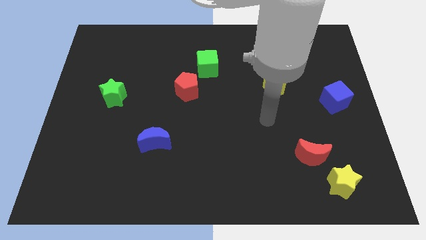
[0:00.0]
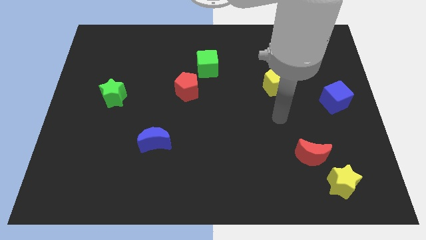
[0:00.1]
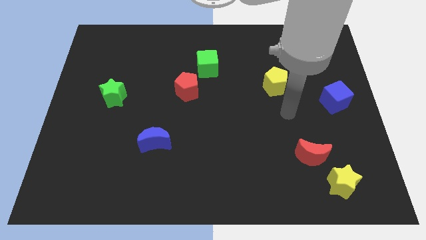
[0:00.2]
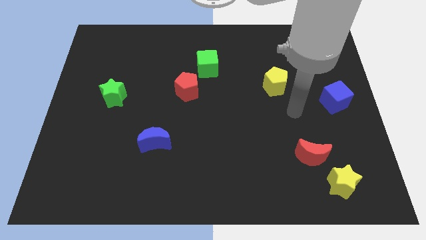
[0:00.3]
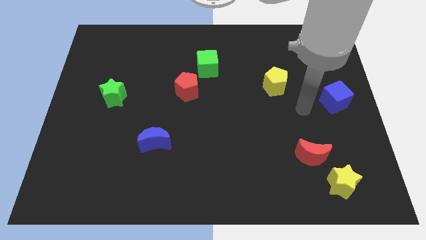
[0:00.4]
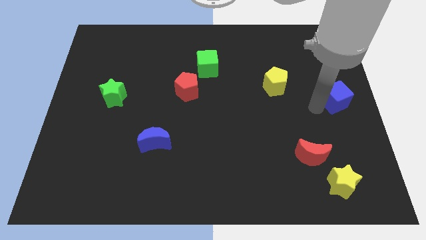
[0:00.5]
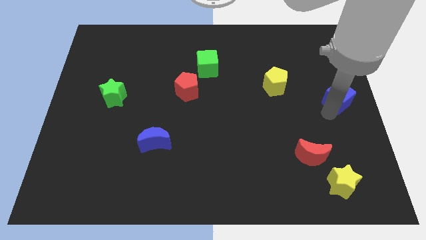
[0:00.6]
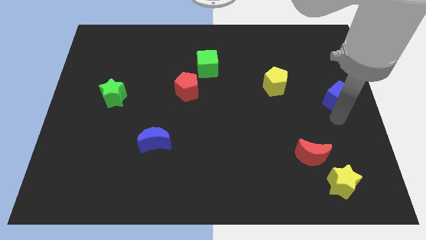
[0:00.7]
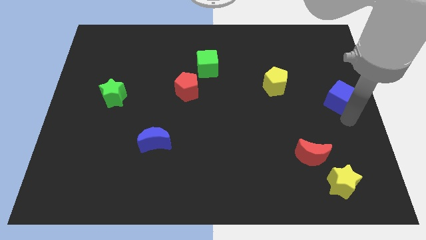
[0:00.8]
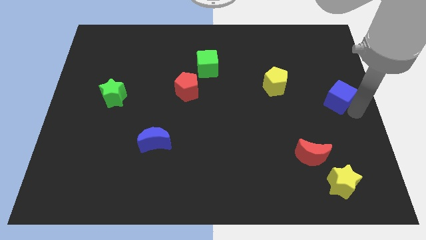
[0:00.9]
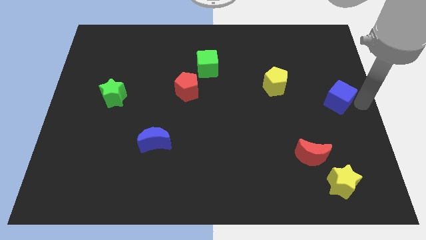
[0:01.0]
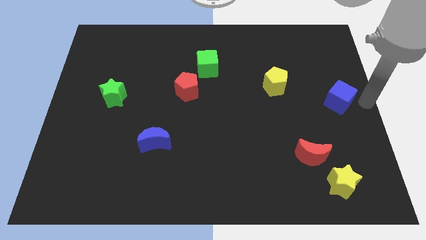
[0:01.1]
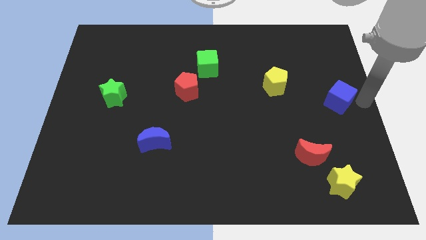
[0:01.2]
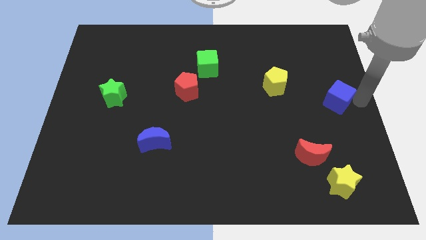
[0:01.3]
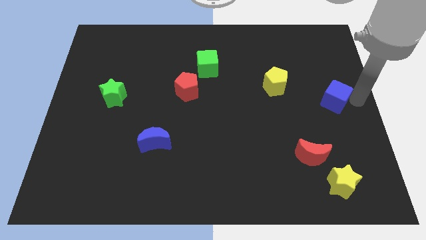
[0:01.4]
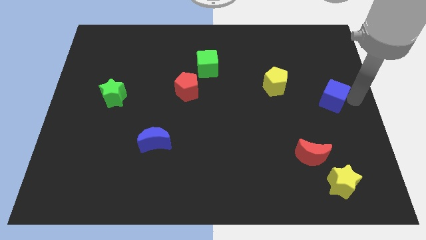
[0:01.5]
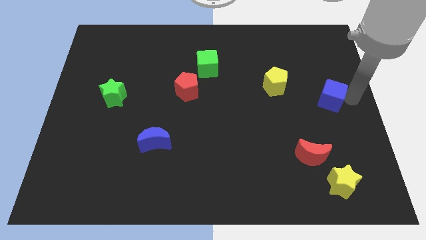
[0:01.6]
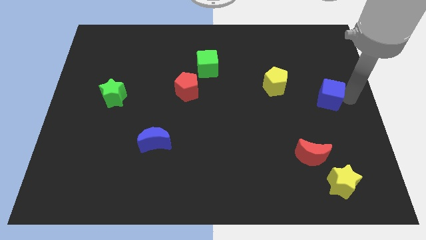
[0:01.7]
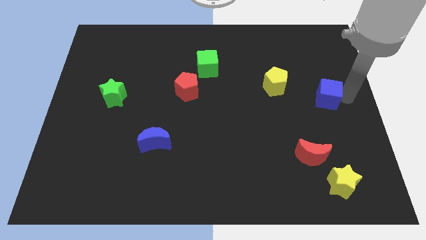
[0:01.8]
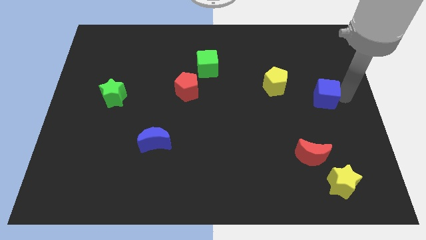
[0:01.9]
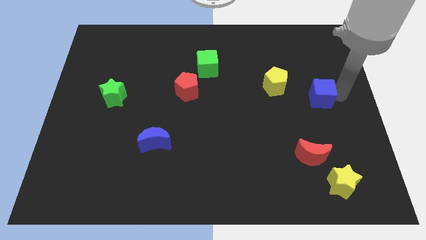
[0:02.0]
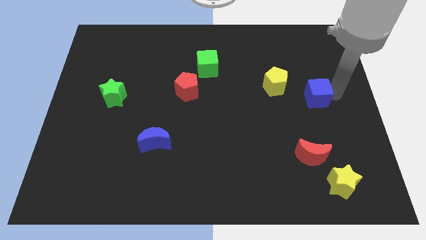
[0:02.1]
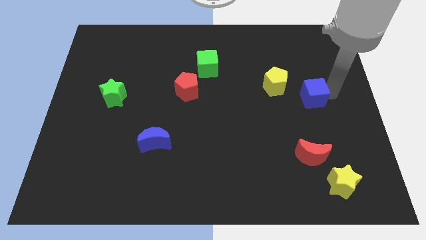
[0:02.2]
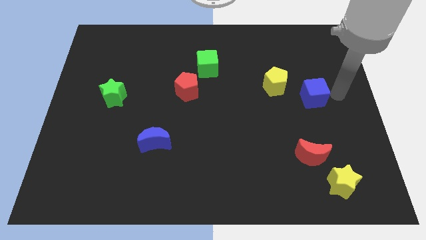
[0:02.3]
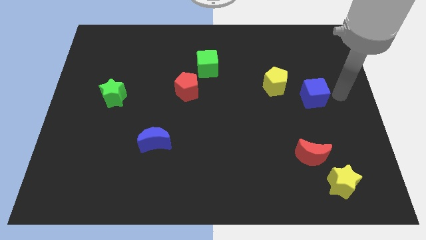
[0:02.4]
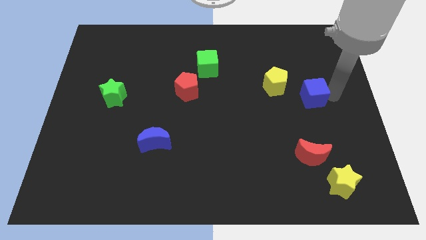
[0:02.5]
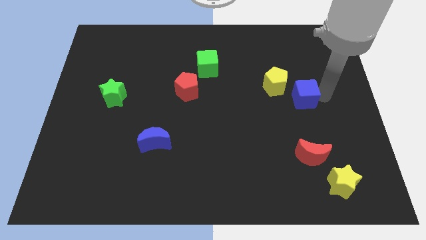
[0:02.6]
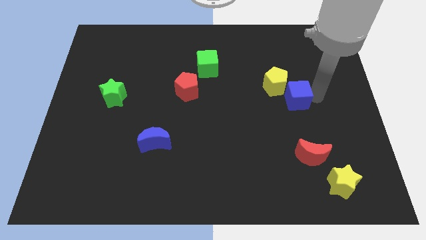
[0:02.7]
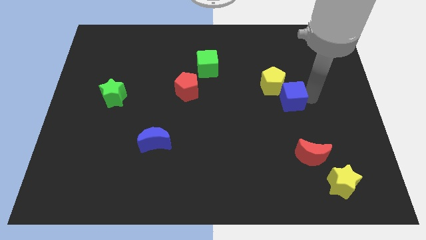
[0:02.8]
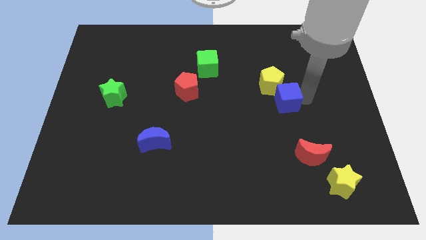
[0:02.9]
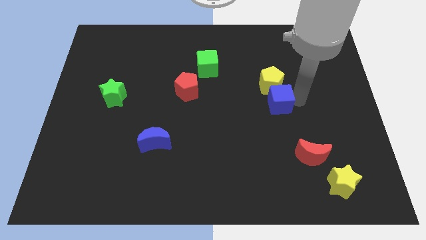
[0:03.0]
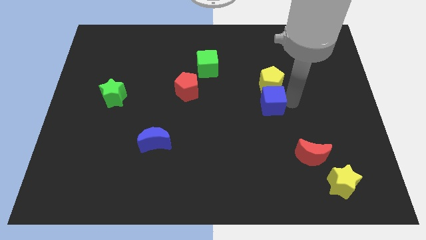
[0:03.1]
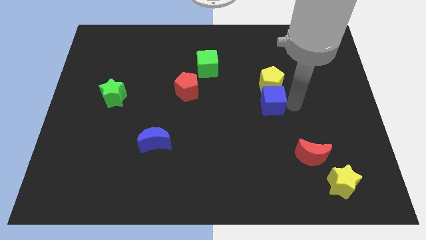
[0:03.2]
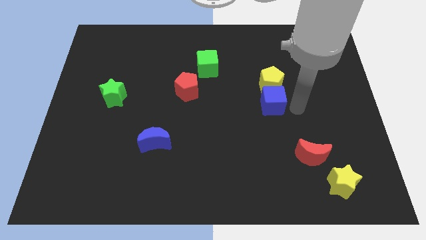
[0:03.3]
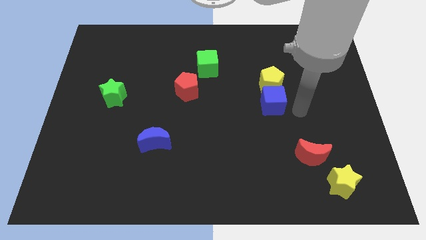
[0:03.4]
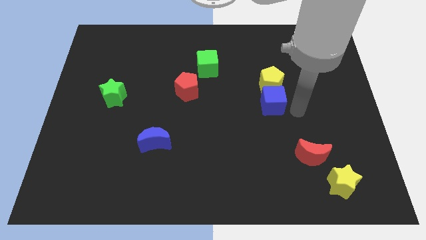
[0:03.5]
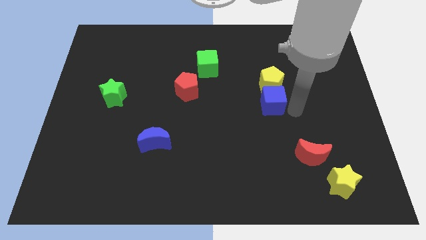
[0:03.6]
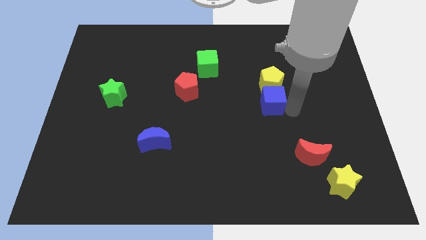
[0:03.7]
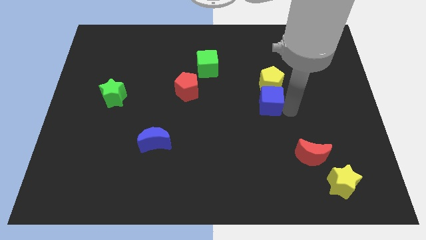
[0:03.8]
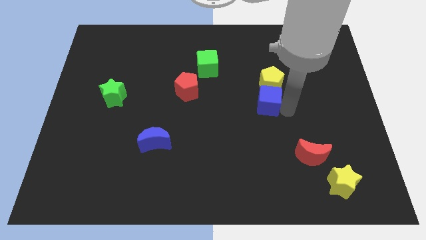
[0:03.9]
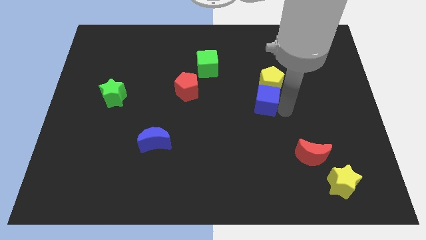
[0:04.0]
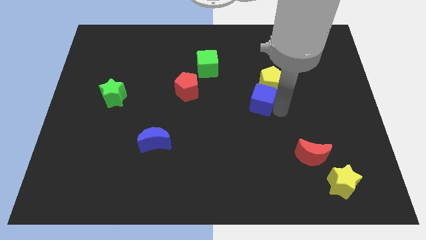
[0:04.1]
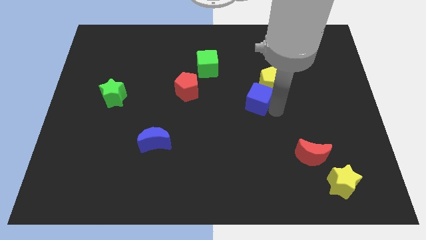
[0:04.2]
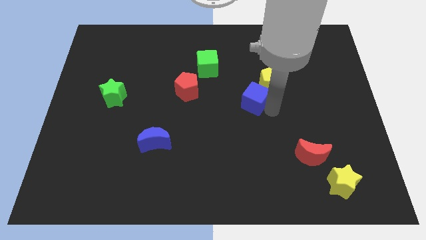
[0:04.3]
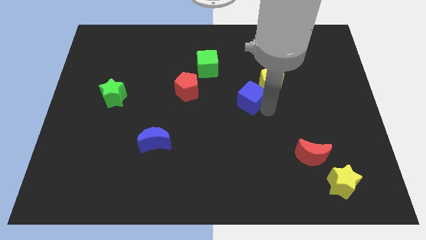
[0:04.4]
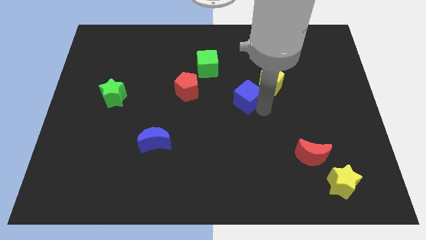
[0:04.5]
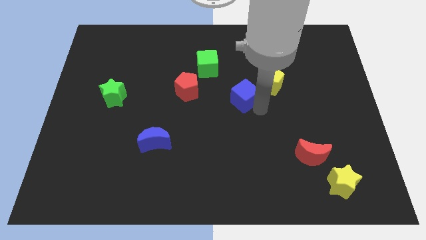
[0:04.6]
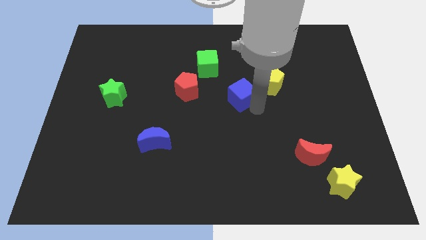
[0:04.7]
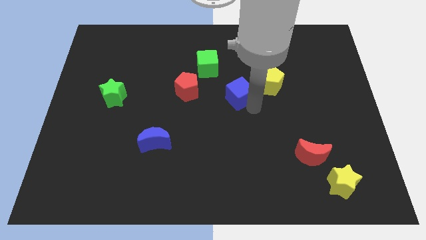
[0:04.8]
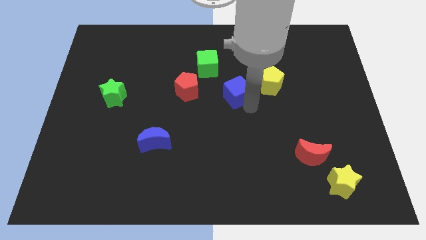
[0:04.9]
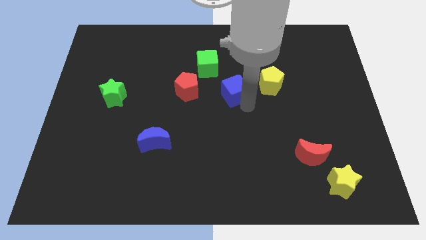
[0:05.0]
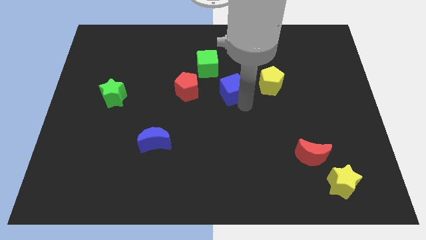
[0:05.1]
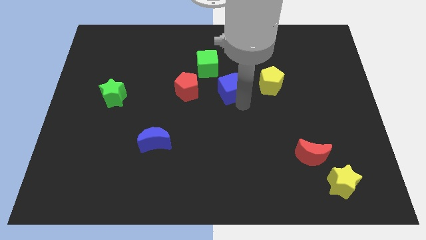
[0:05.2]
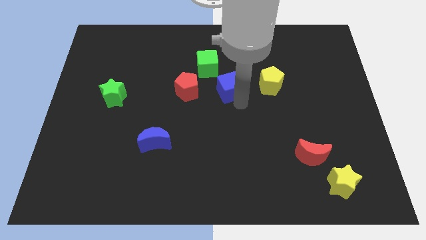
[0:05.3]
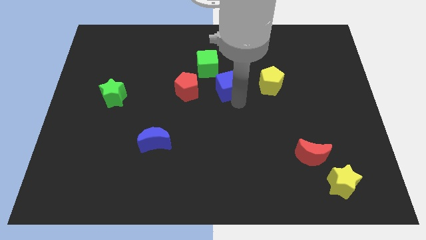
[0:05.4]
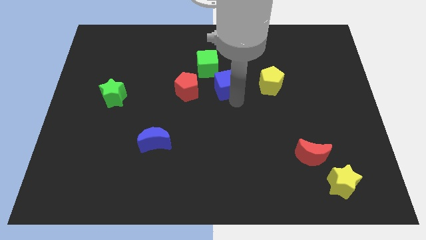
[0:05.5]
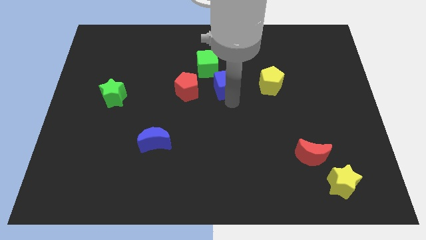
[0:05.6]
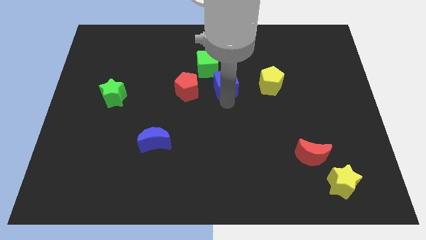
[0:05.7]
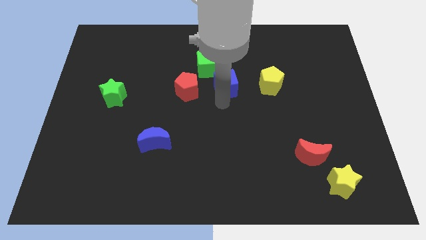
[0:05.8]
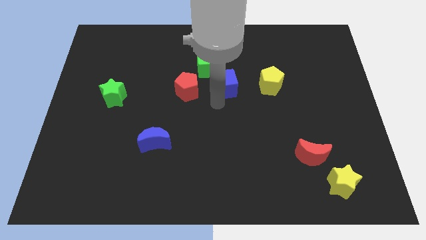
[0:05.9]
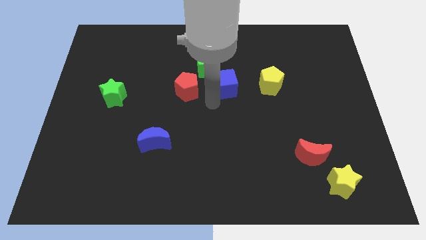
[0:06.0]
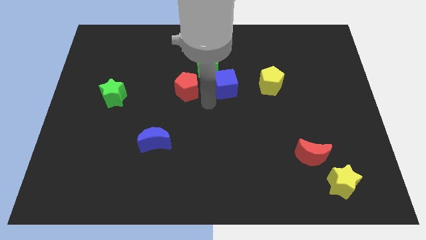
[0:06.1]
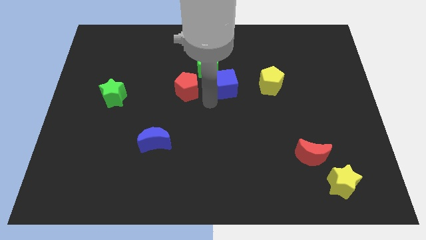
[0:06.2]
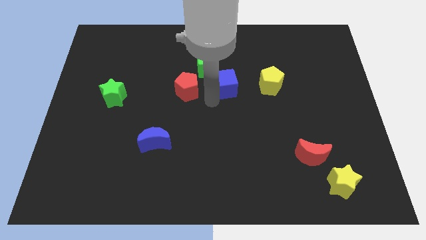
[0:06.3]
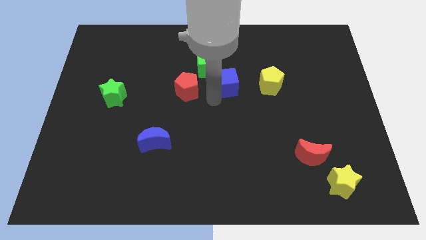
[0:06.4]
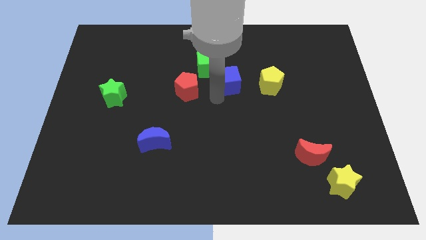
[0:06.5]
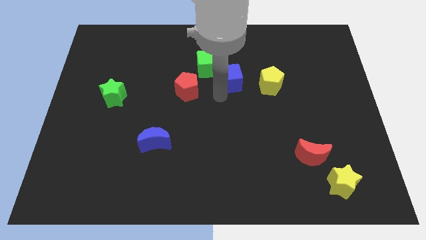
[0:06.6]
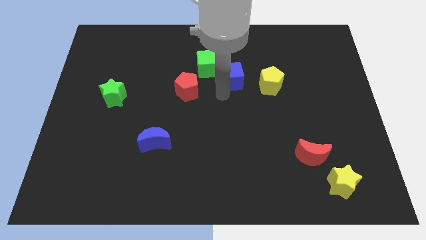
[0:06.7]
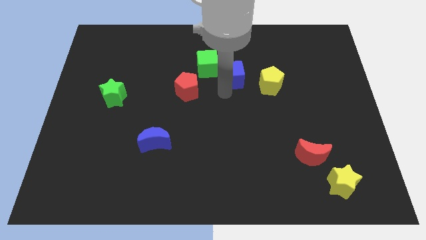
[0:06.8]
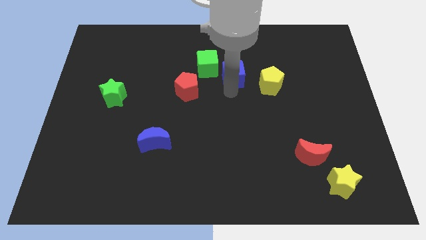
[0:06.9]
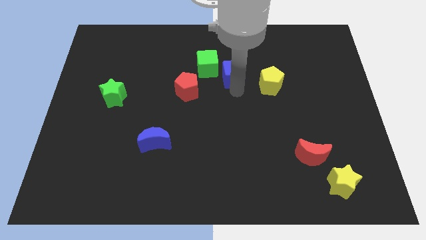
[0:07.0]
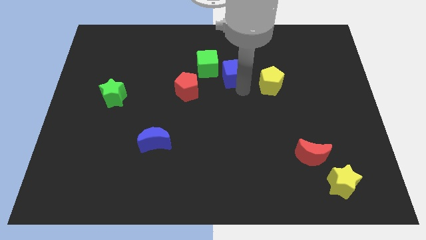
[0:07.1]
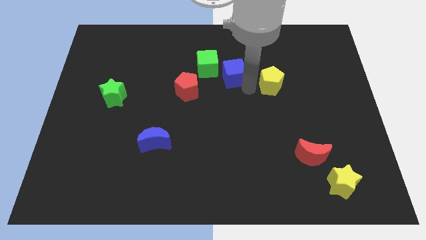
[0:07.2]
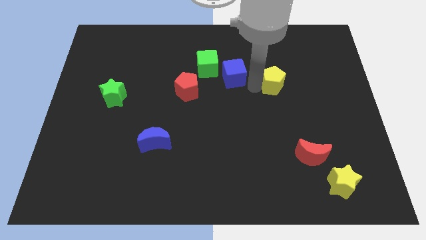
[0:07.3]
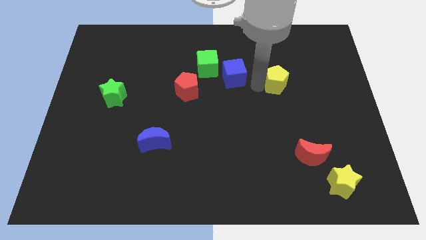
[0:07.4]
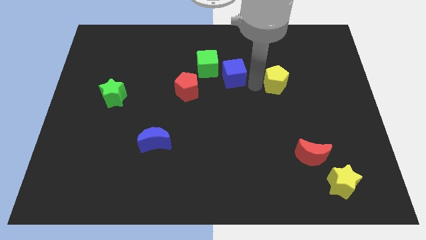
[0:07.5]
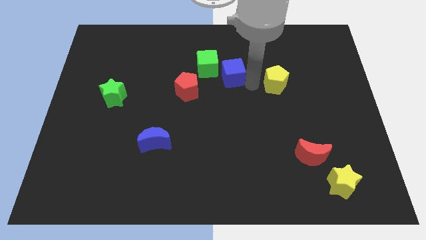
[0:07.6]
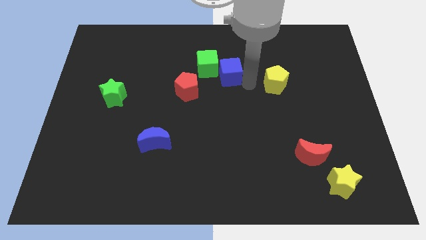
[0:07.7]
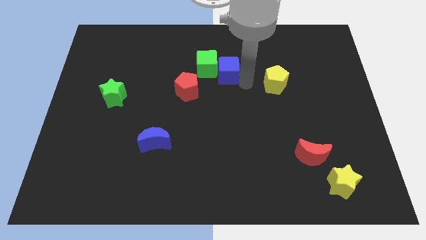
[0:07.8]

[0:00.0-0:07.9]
push the blue cube towards the green cube

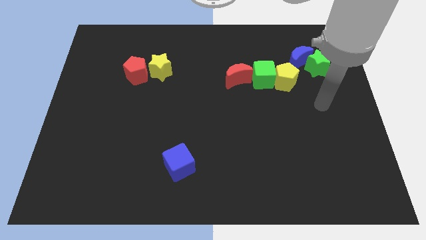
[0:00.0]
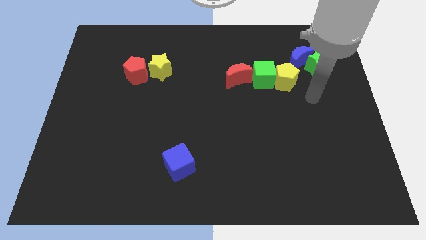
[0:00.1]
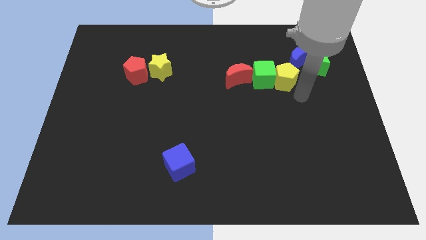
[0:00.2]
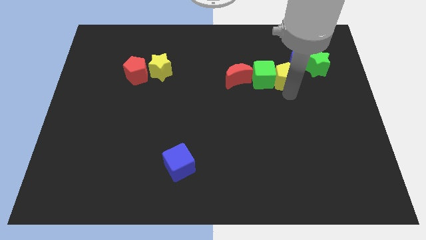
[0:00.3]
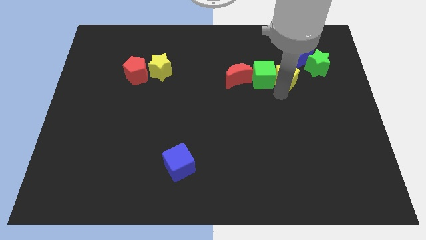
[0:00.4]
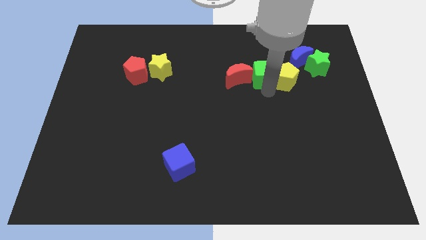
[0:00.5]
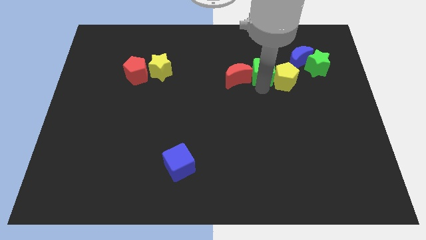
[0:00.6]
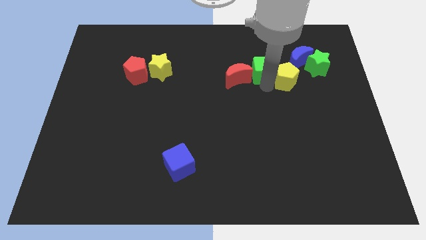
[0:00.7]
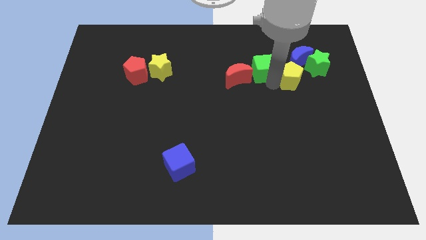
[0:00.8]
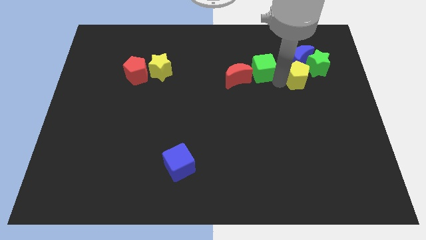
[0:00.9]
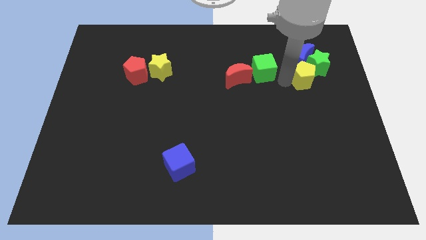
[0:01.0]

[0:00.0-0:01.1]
slide the yellow pentagon to the green star
